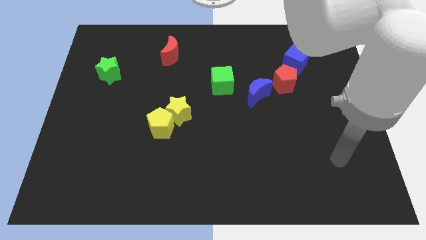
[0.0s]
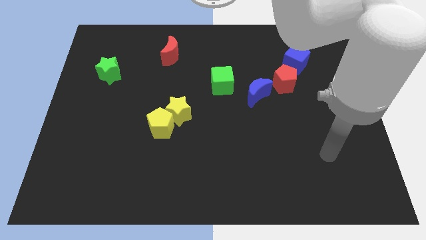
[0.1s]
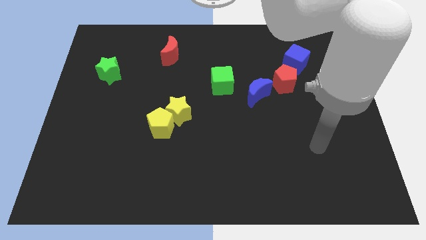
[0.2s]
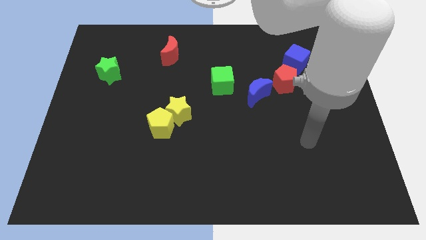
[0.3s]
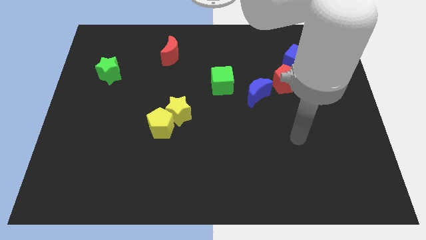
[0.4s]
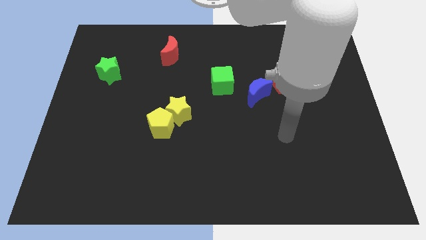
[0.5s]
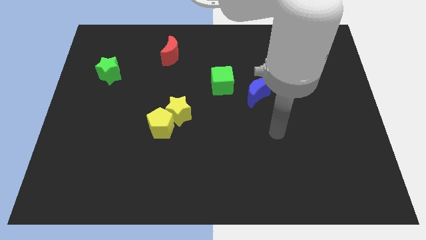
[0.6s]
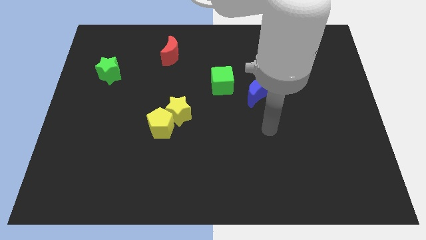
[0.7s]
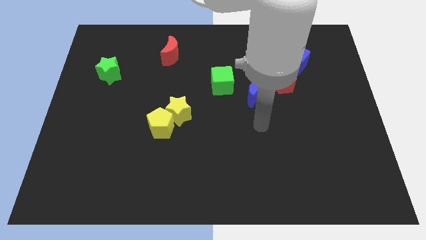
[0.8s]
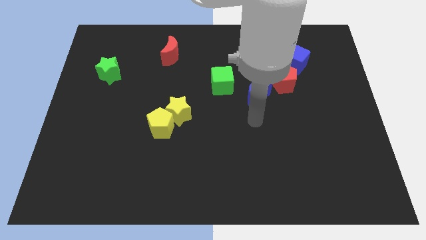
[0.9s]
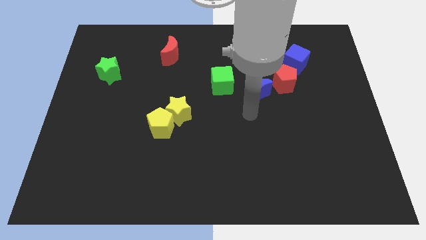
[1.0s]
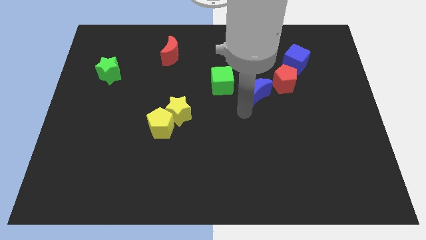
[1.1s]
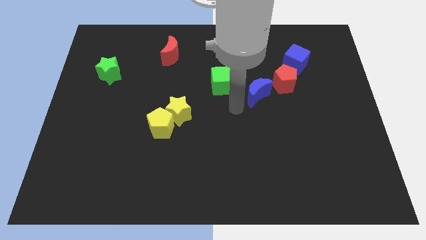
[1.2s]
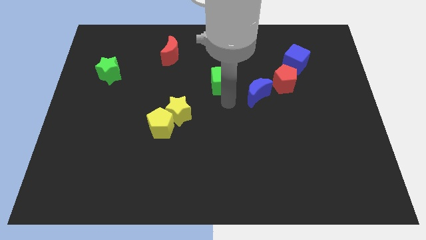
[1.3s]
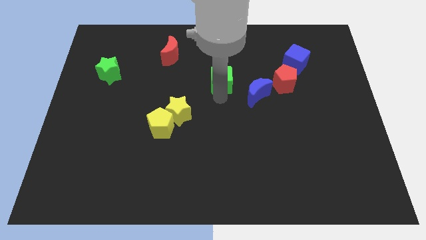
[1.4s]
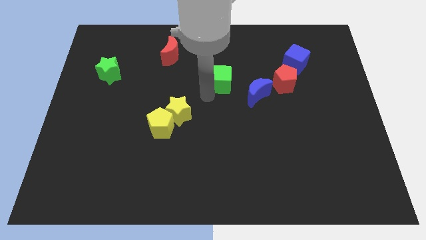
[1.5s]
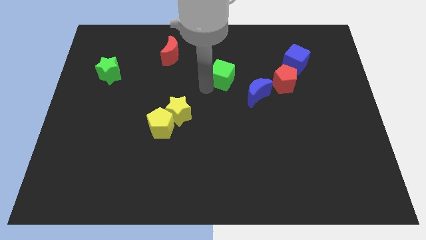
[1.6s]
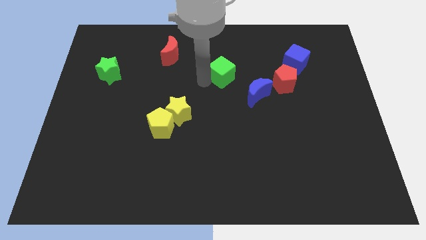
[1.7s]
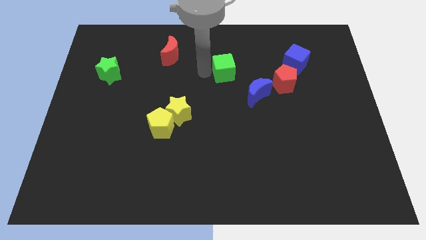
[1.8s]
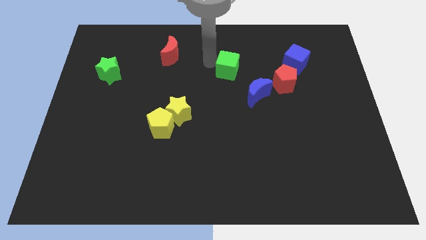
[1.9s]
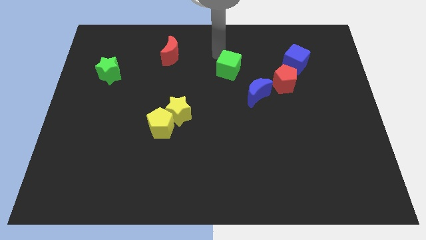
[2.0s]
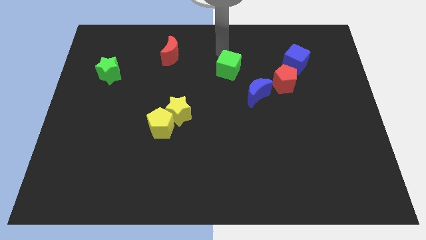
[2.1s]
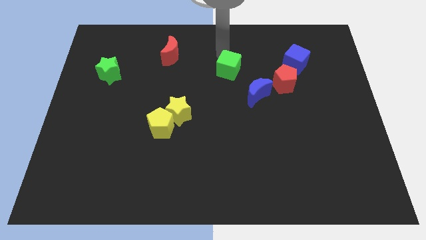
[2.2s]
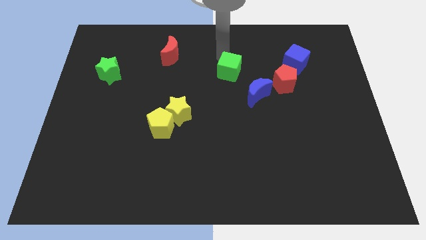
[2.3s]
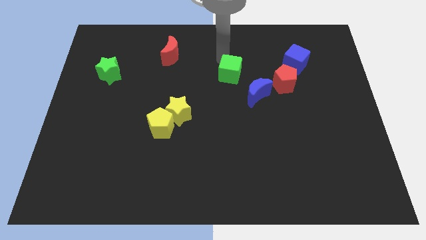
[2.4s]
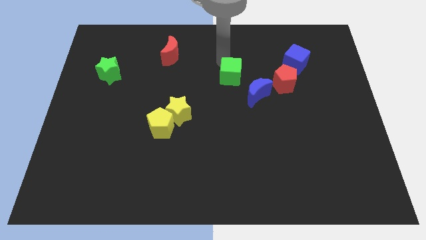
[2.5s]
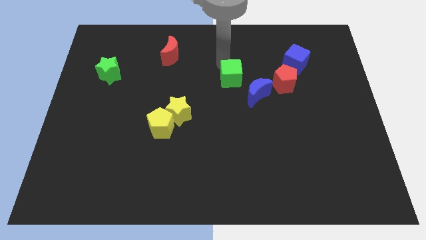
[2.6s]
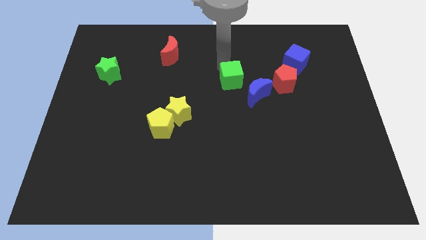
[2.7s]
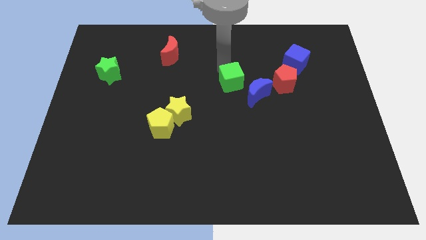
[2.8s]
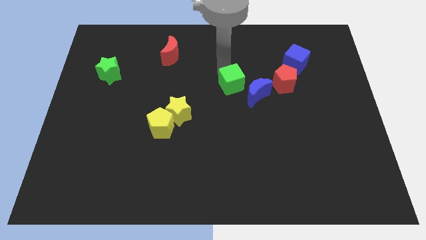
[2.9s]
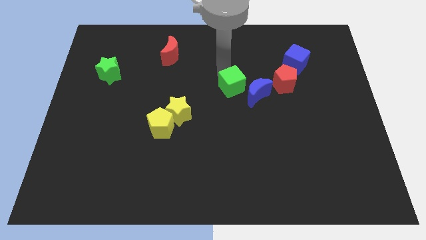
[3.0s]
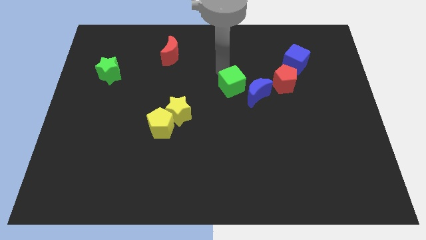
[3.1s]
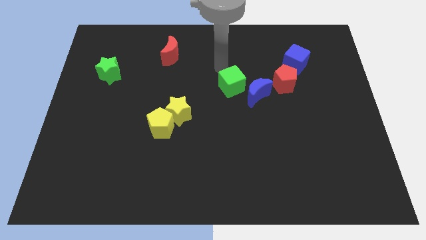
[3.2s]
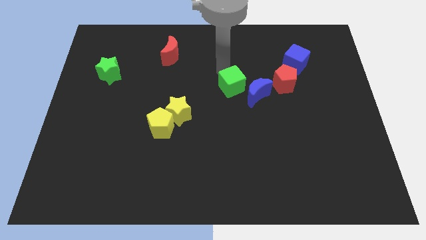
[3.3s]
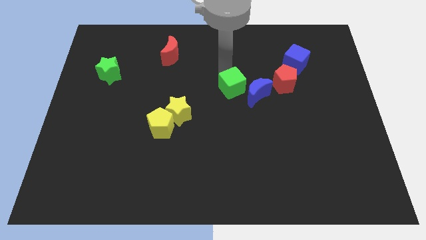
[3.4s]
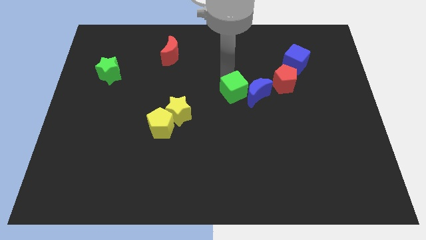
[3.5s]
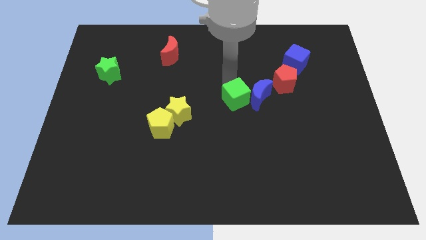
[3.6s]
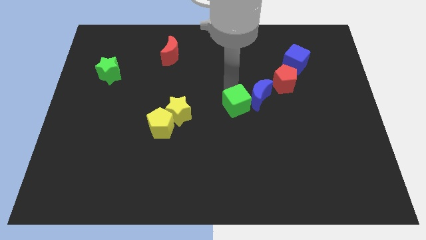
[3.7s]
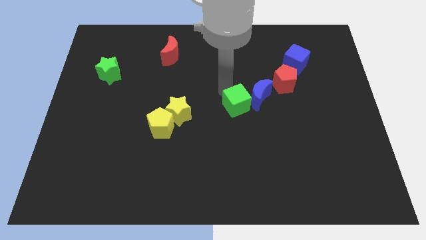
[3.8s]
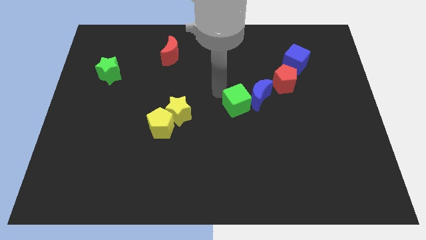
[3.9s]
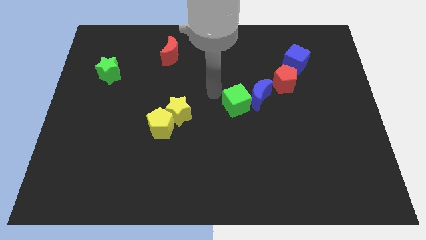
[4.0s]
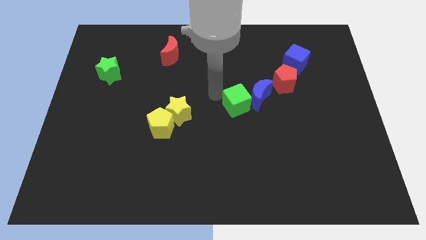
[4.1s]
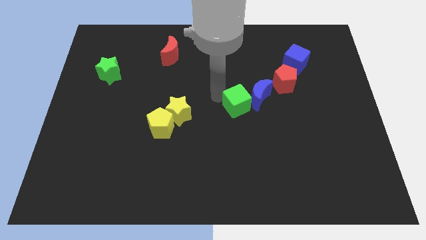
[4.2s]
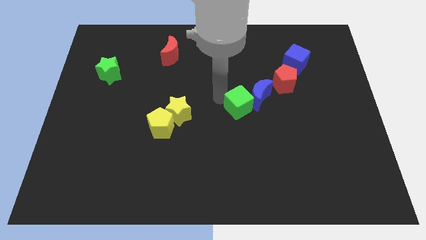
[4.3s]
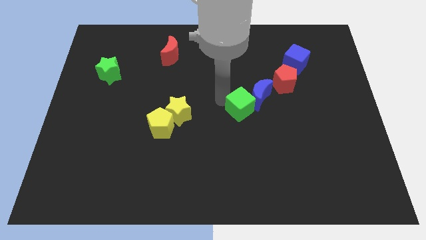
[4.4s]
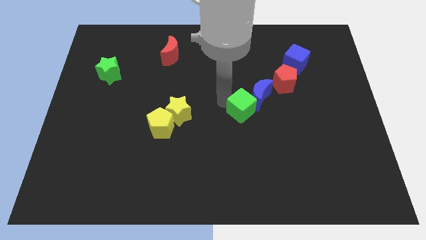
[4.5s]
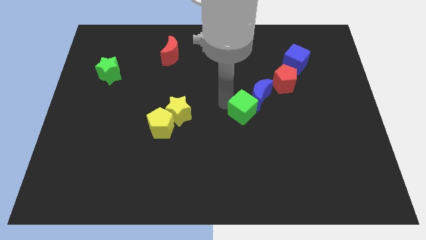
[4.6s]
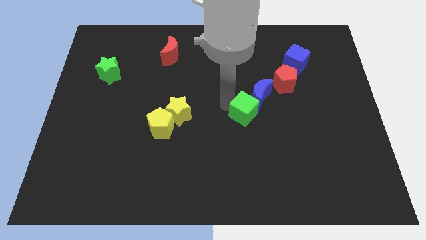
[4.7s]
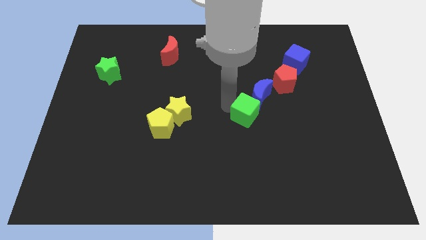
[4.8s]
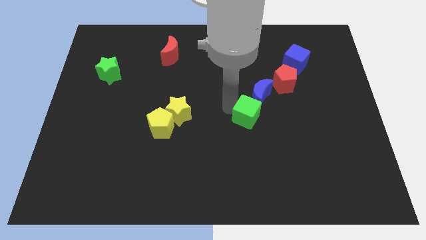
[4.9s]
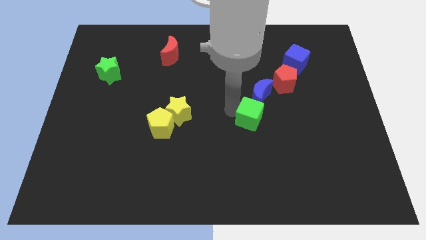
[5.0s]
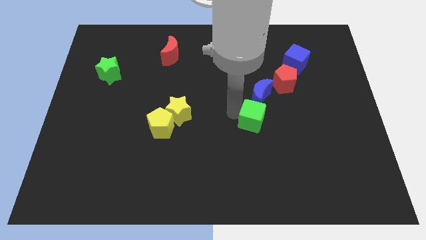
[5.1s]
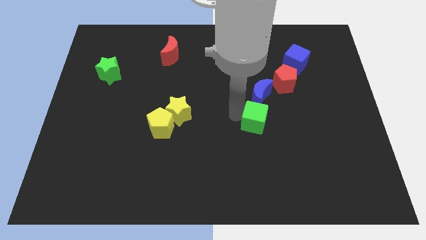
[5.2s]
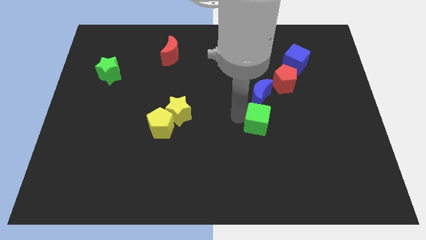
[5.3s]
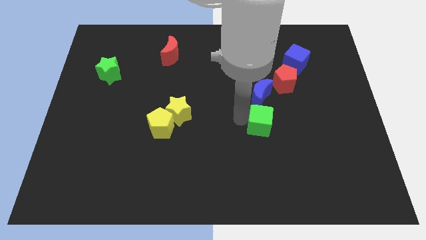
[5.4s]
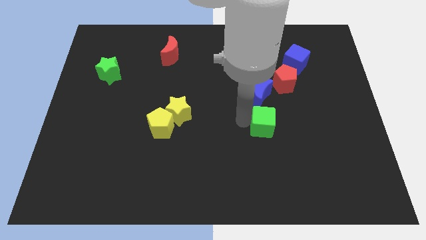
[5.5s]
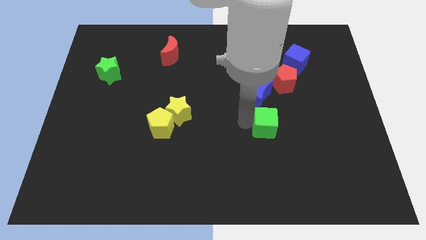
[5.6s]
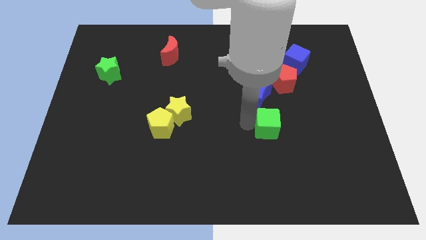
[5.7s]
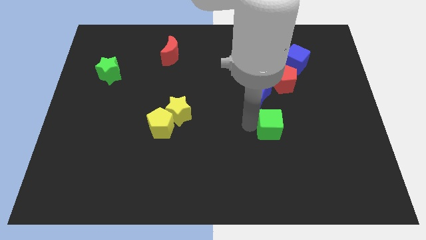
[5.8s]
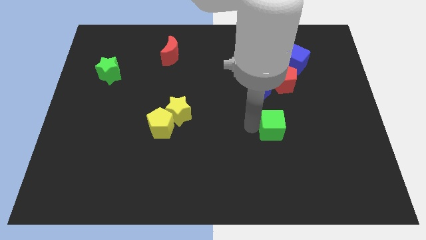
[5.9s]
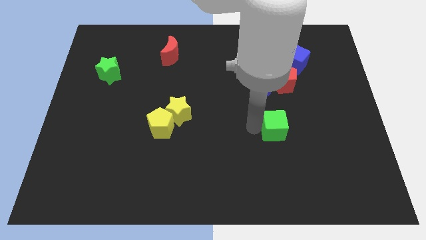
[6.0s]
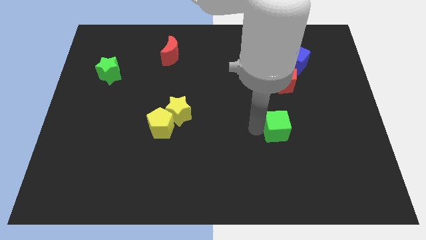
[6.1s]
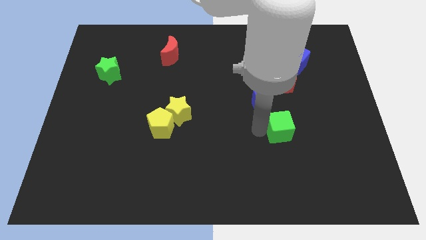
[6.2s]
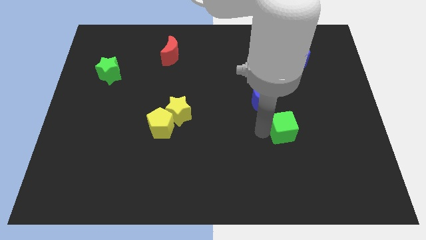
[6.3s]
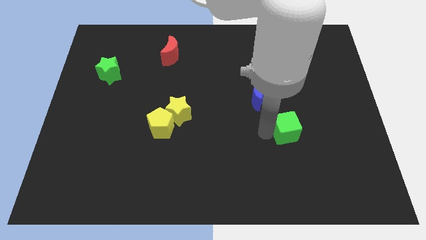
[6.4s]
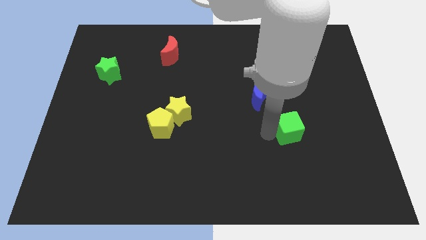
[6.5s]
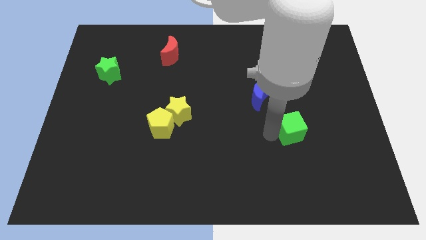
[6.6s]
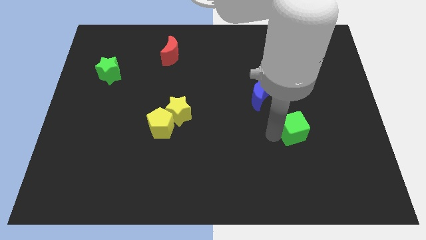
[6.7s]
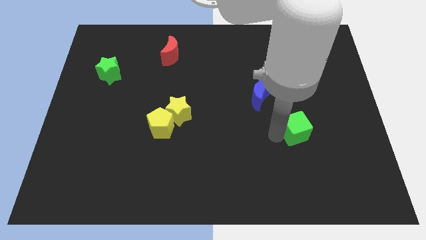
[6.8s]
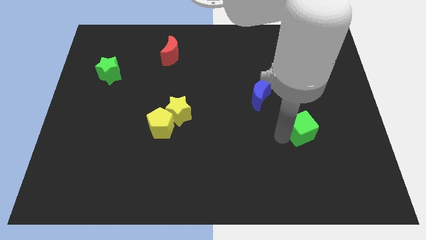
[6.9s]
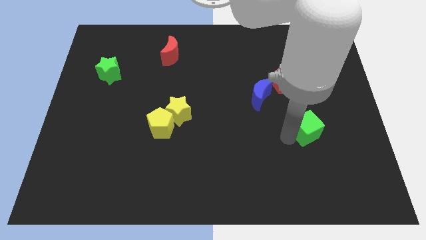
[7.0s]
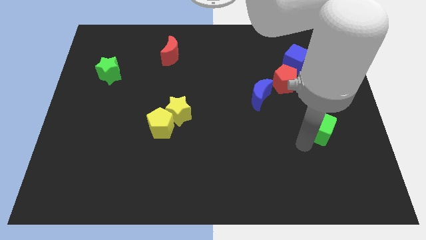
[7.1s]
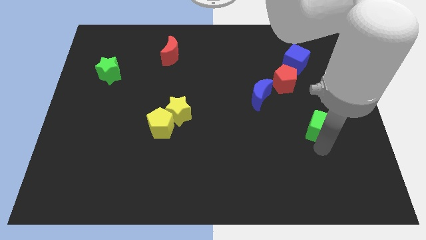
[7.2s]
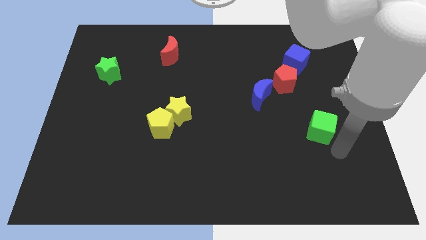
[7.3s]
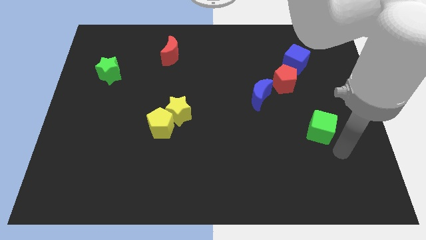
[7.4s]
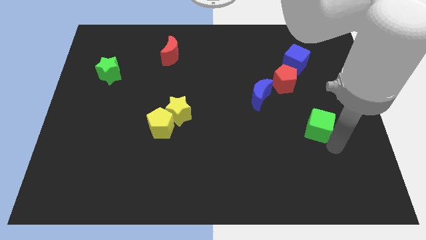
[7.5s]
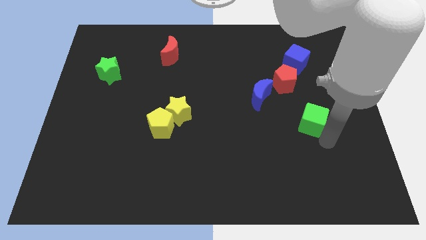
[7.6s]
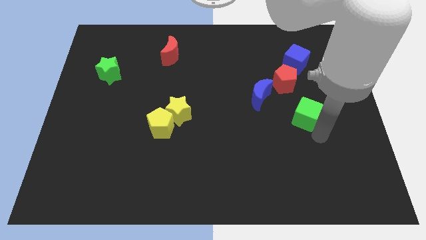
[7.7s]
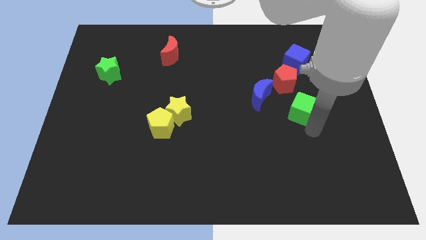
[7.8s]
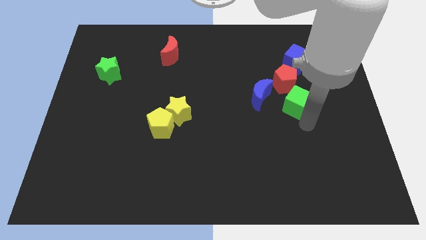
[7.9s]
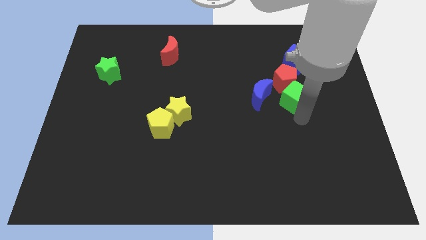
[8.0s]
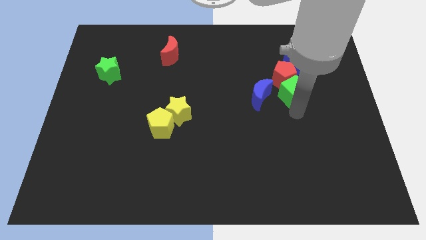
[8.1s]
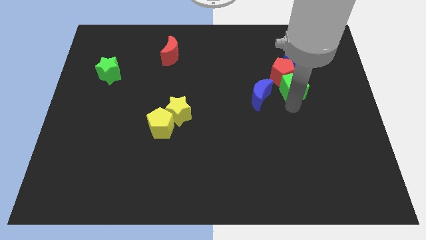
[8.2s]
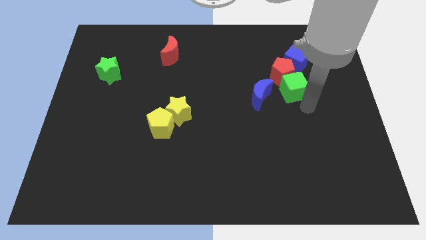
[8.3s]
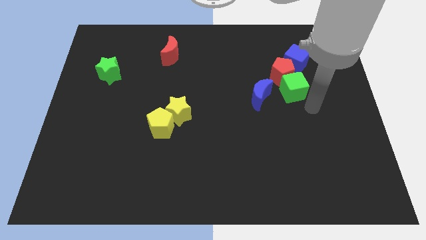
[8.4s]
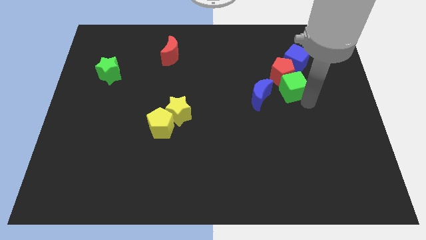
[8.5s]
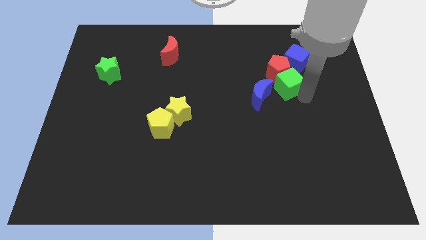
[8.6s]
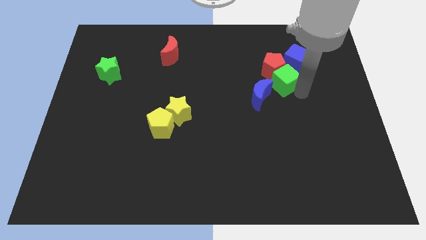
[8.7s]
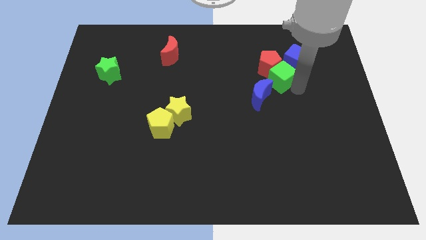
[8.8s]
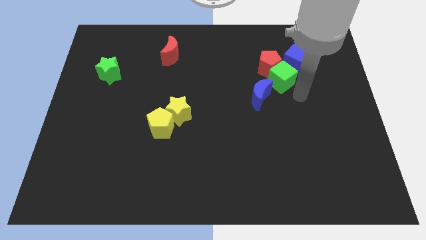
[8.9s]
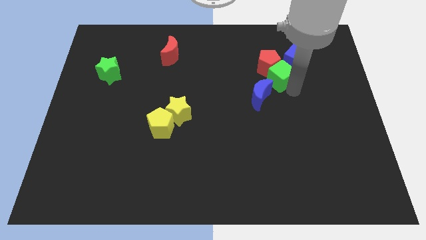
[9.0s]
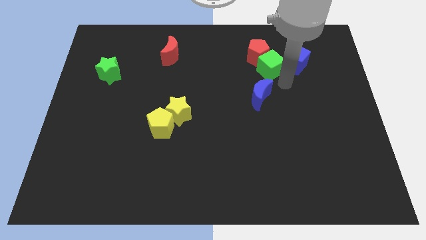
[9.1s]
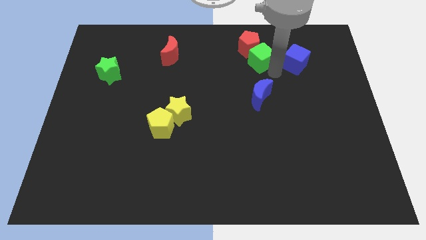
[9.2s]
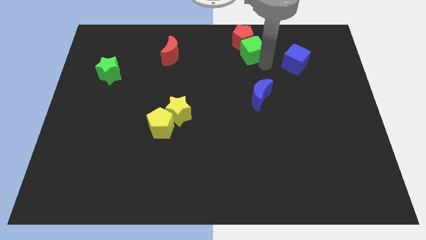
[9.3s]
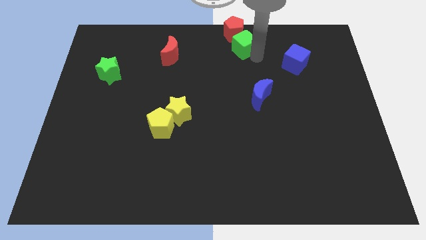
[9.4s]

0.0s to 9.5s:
push the green cube to the towards your base
